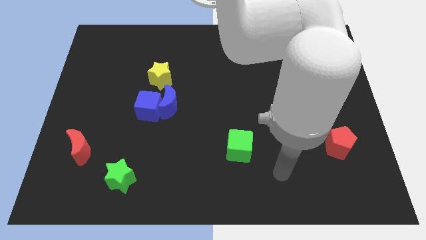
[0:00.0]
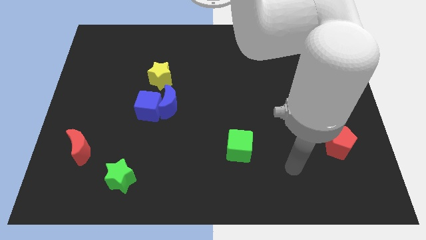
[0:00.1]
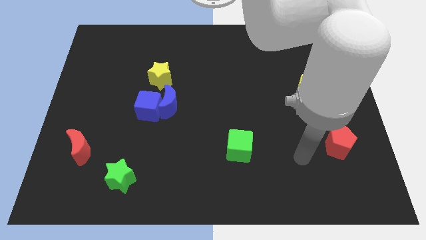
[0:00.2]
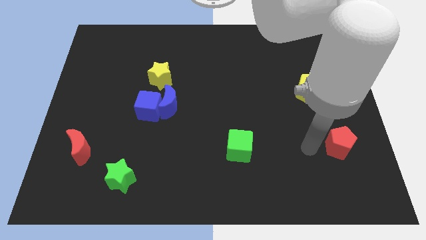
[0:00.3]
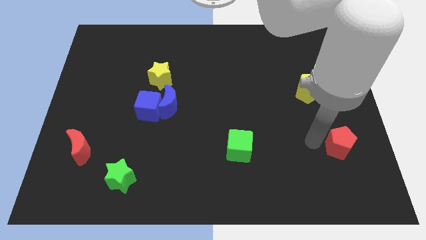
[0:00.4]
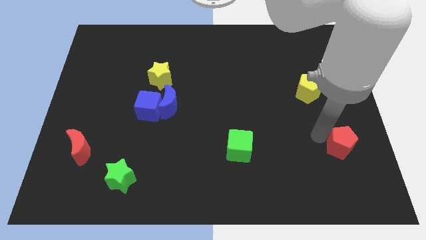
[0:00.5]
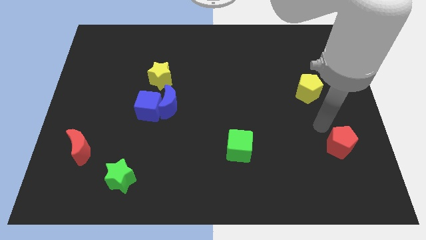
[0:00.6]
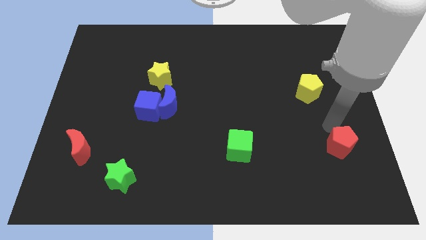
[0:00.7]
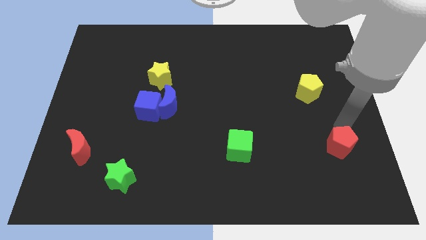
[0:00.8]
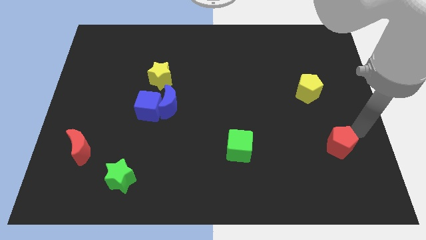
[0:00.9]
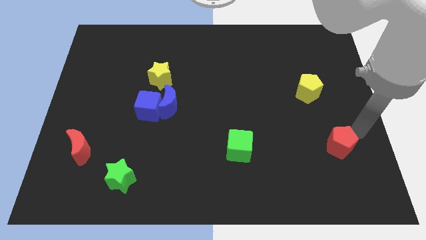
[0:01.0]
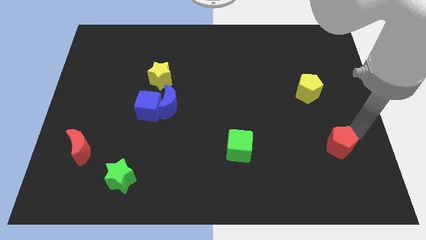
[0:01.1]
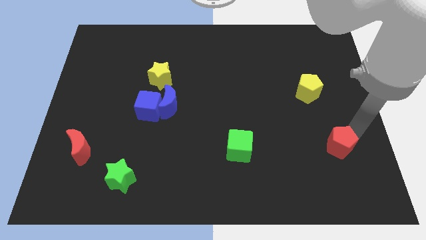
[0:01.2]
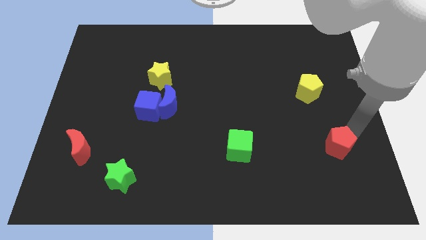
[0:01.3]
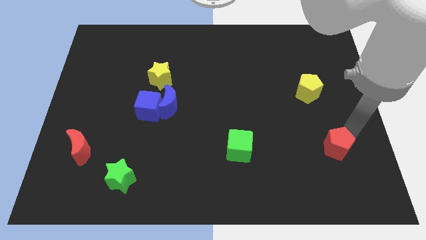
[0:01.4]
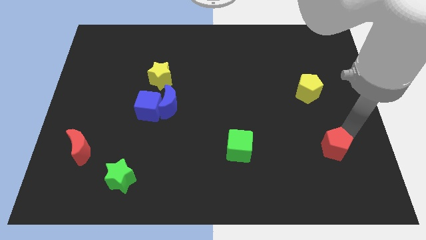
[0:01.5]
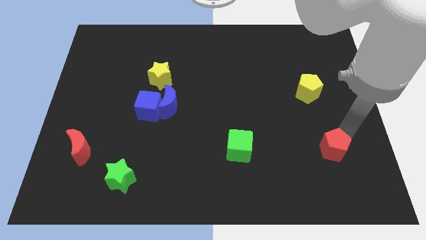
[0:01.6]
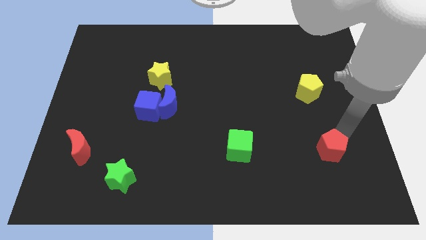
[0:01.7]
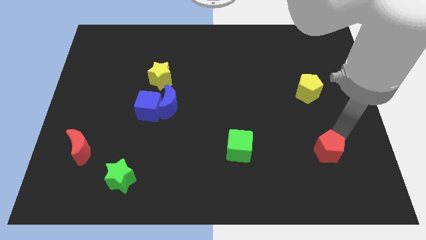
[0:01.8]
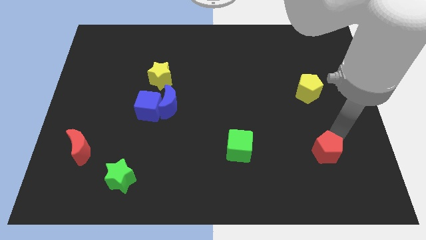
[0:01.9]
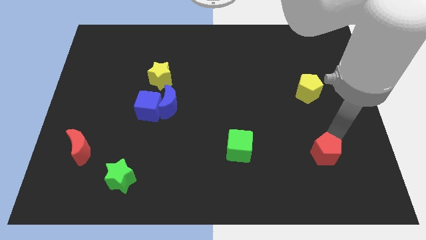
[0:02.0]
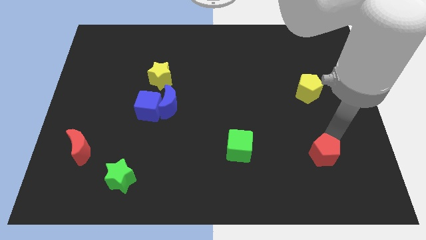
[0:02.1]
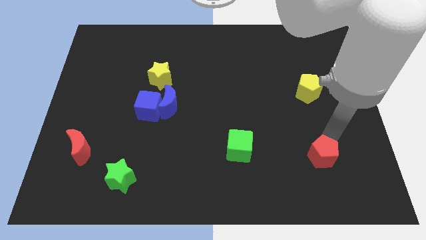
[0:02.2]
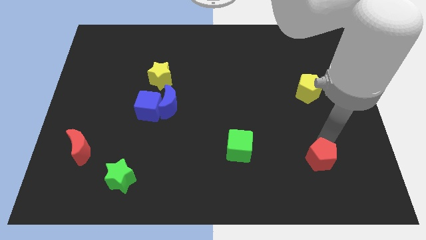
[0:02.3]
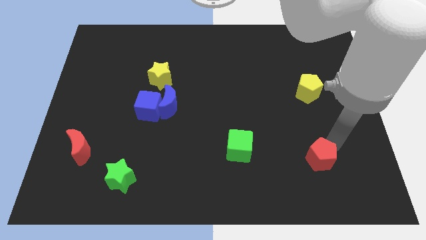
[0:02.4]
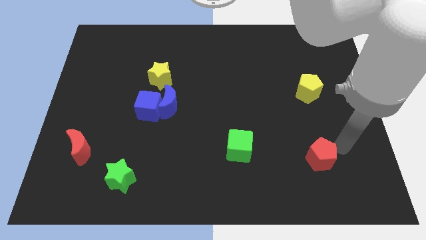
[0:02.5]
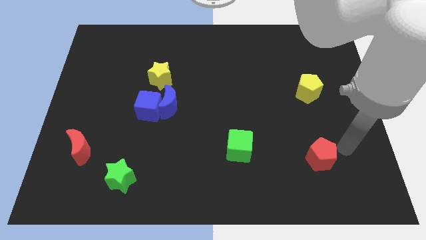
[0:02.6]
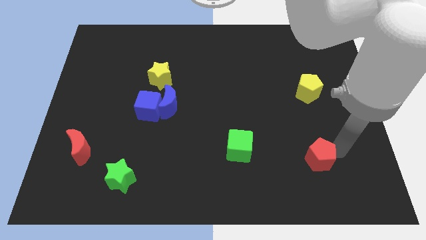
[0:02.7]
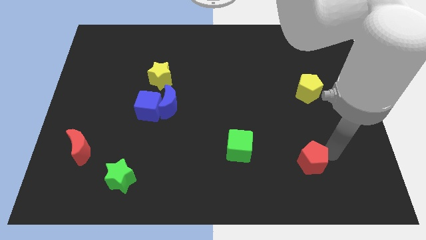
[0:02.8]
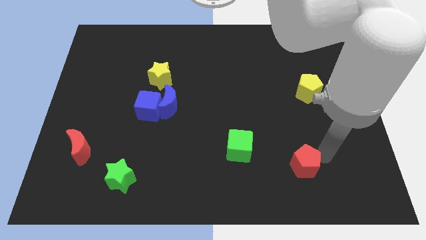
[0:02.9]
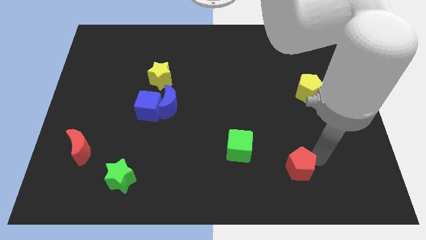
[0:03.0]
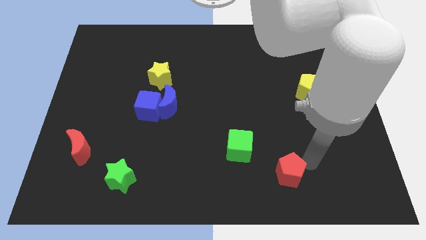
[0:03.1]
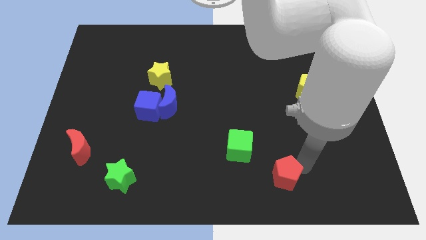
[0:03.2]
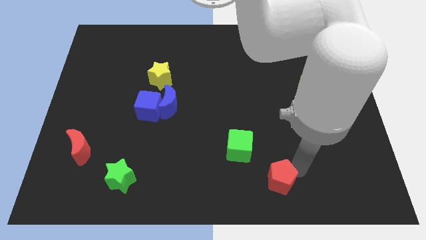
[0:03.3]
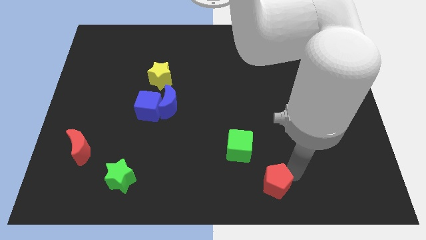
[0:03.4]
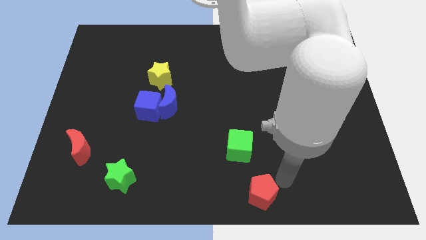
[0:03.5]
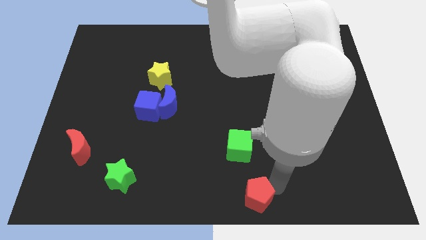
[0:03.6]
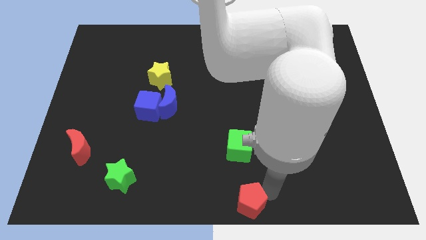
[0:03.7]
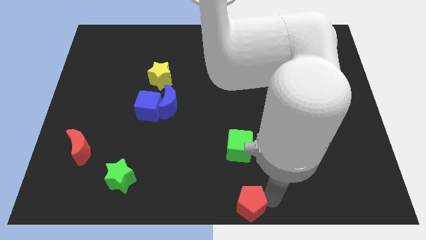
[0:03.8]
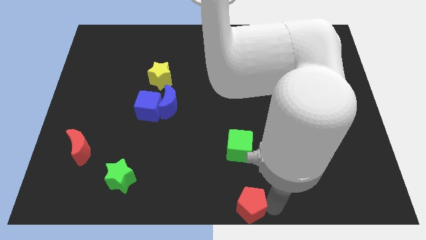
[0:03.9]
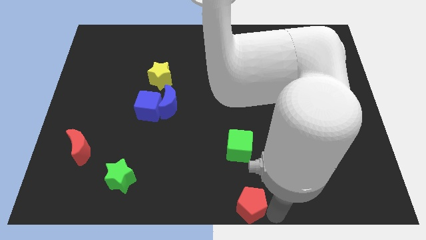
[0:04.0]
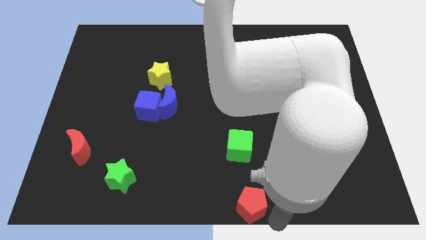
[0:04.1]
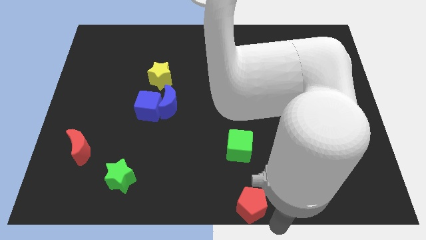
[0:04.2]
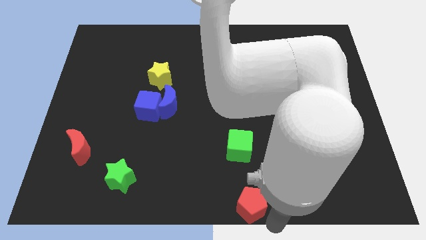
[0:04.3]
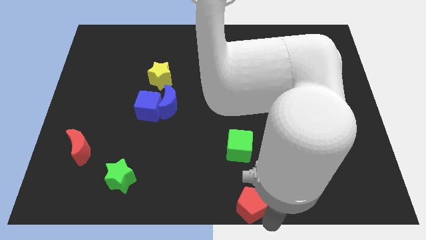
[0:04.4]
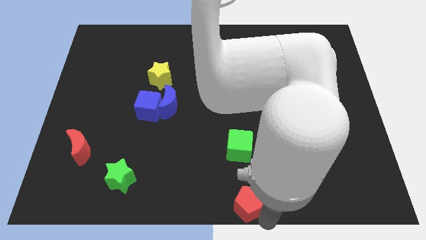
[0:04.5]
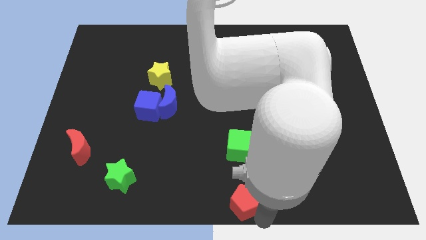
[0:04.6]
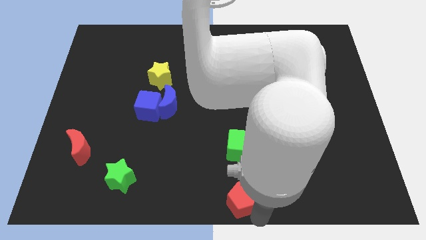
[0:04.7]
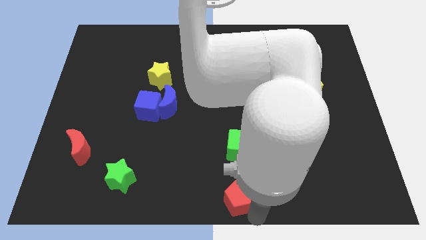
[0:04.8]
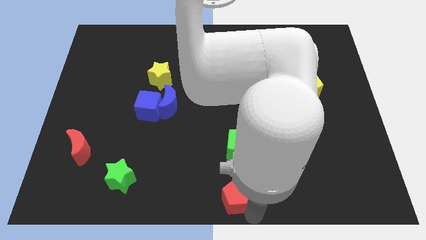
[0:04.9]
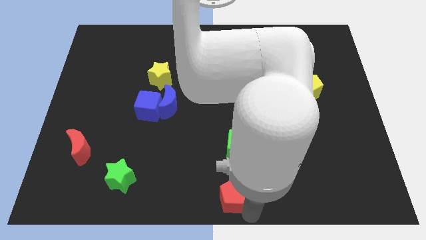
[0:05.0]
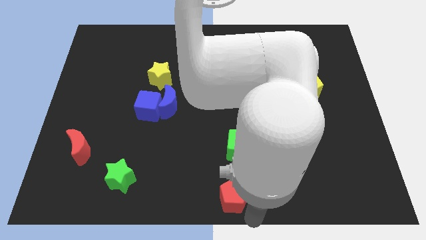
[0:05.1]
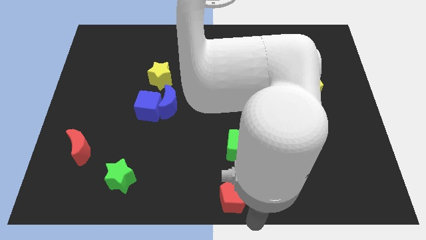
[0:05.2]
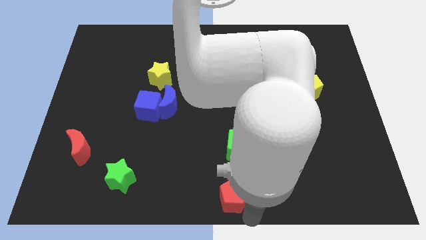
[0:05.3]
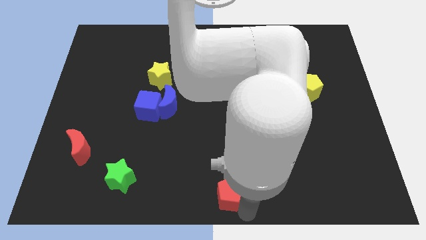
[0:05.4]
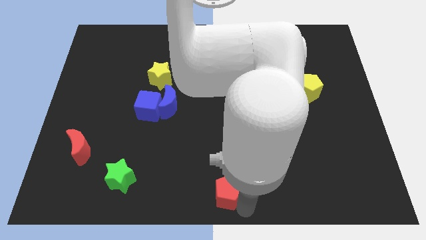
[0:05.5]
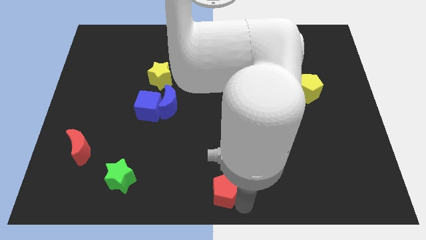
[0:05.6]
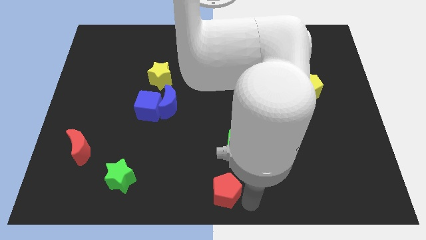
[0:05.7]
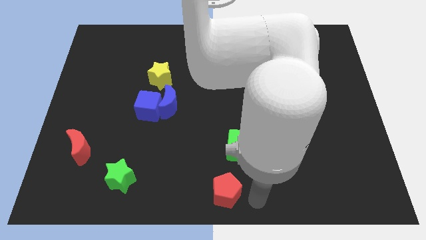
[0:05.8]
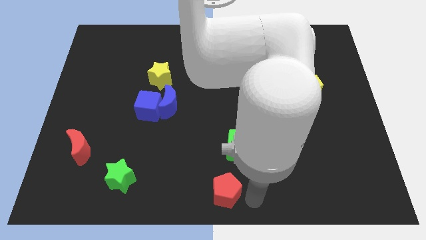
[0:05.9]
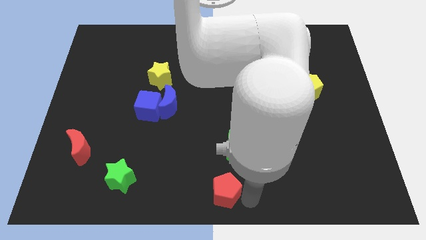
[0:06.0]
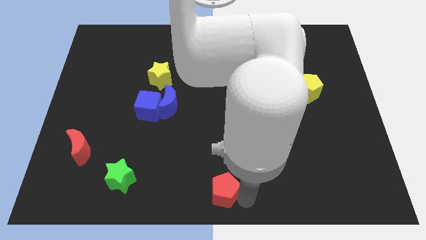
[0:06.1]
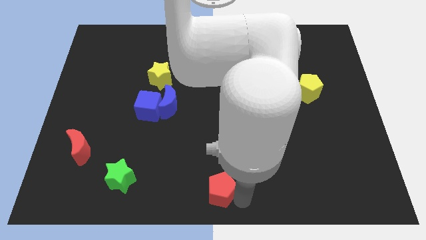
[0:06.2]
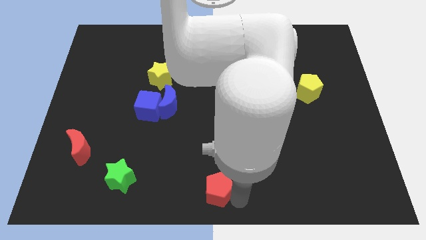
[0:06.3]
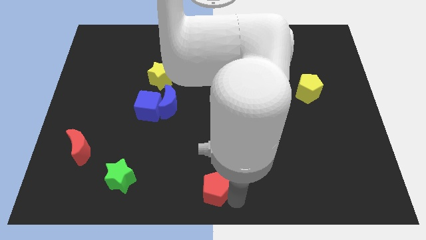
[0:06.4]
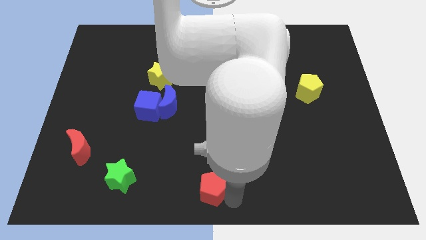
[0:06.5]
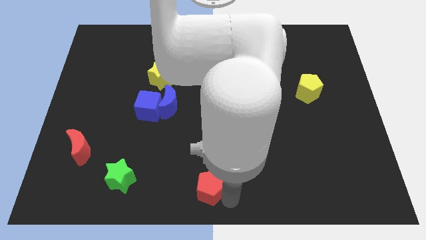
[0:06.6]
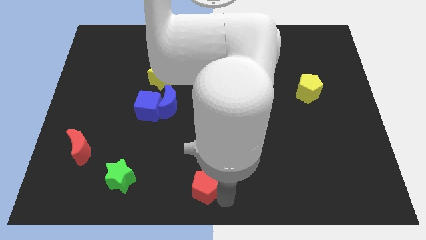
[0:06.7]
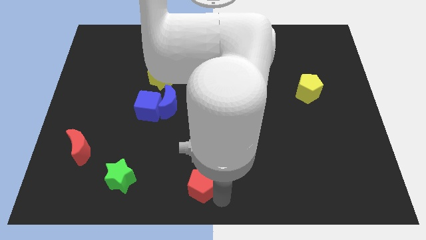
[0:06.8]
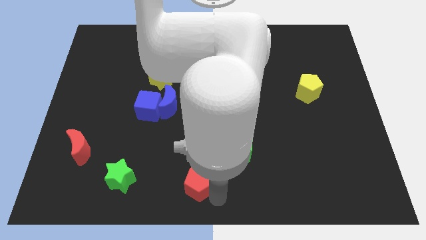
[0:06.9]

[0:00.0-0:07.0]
put the red pentagon to the right of the green star
